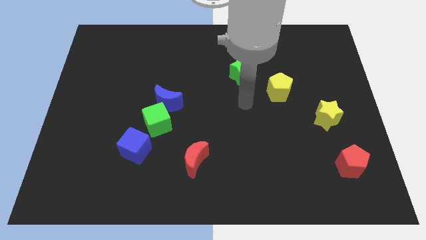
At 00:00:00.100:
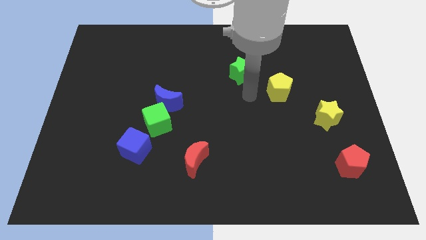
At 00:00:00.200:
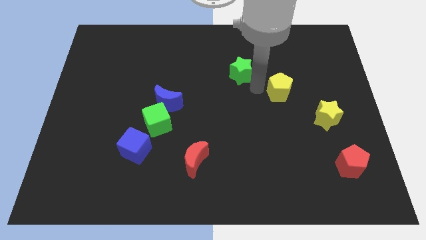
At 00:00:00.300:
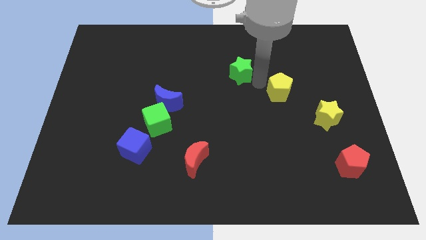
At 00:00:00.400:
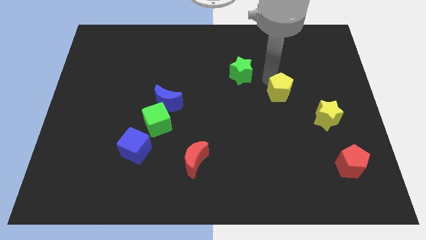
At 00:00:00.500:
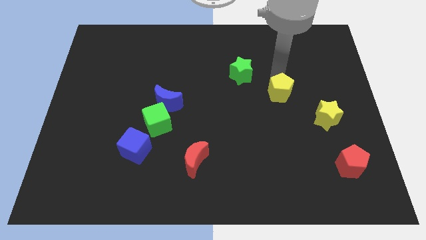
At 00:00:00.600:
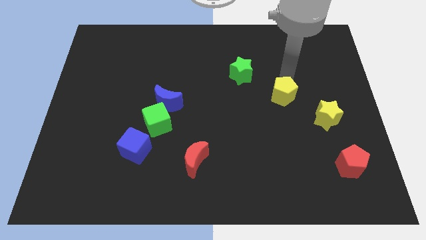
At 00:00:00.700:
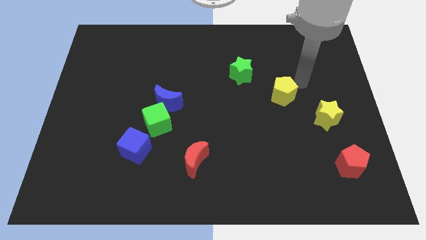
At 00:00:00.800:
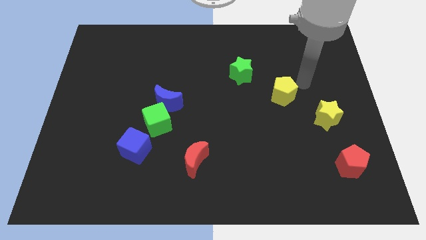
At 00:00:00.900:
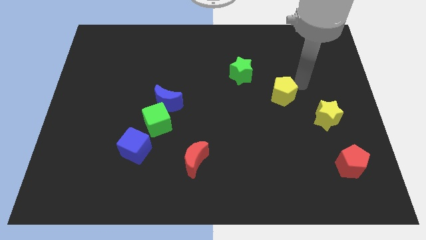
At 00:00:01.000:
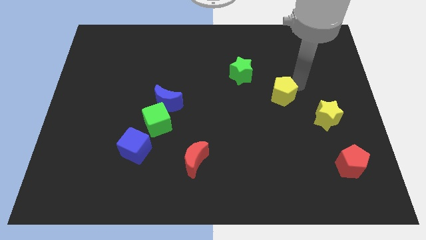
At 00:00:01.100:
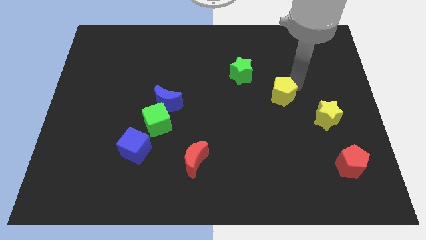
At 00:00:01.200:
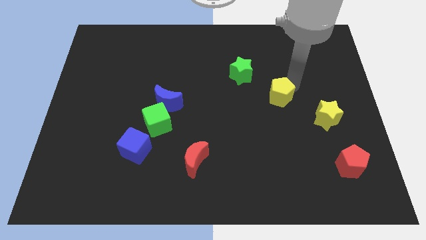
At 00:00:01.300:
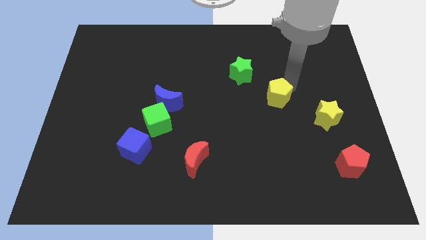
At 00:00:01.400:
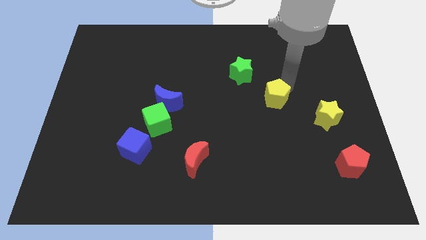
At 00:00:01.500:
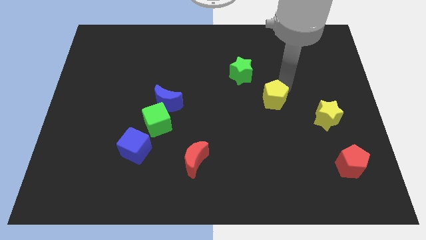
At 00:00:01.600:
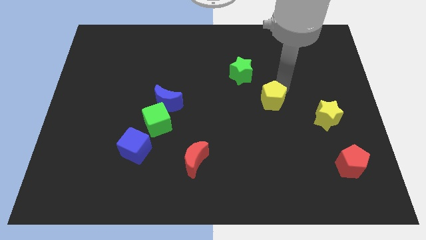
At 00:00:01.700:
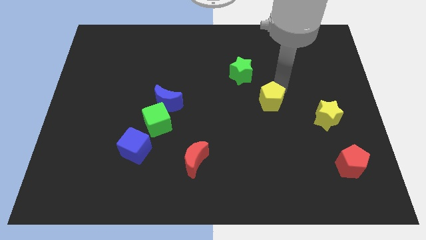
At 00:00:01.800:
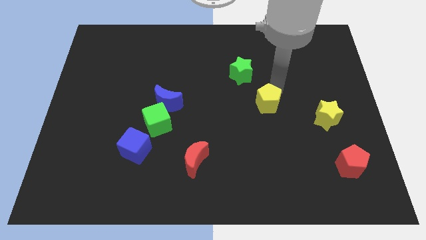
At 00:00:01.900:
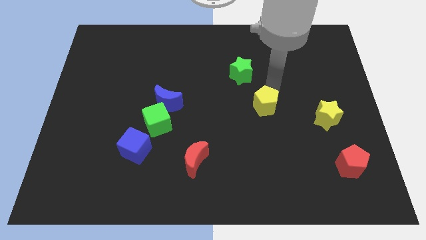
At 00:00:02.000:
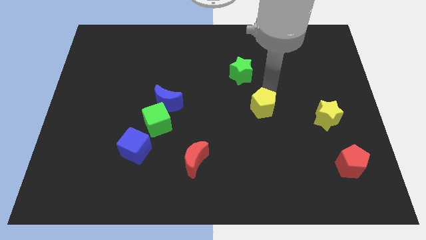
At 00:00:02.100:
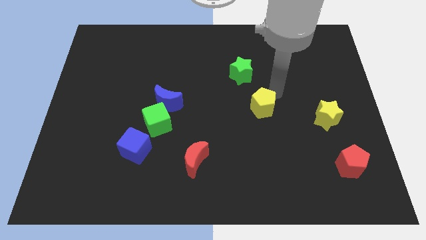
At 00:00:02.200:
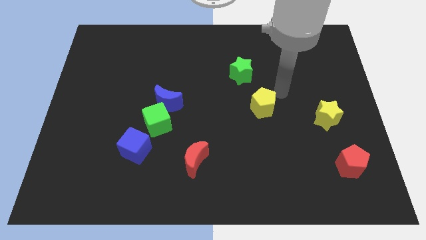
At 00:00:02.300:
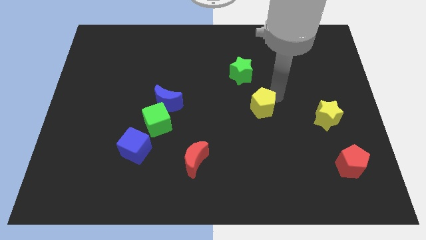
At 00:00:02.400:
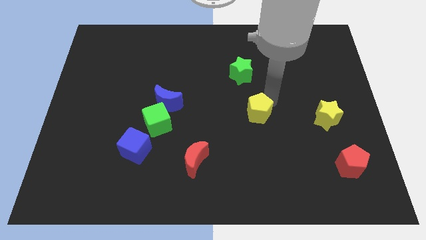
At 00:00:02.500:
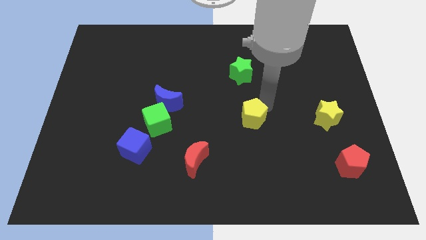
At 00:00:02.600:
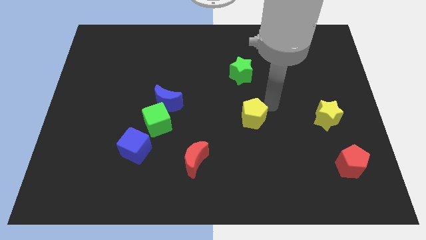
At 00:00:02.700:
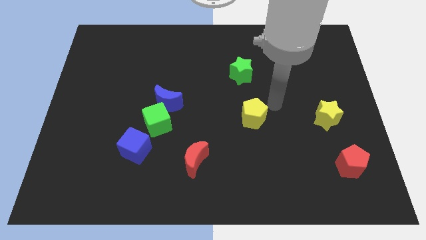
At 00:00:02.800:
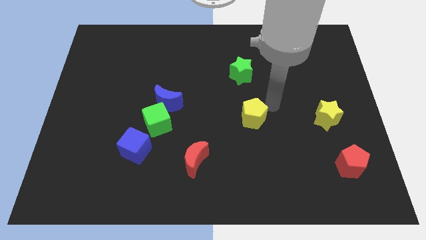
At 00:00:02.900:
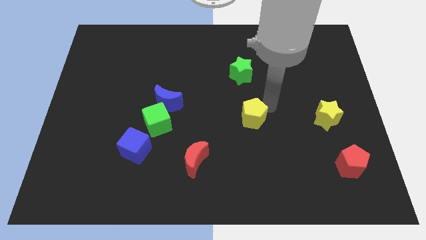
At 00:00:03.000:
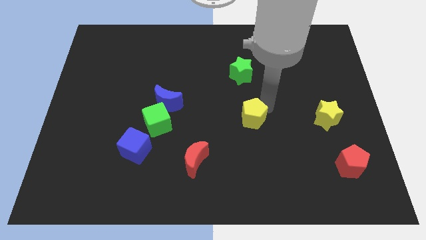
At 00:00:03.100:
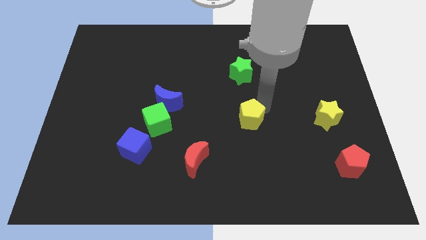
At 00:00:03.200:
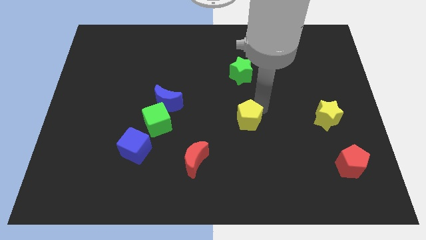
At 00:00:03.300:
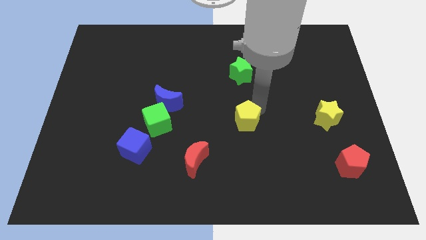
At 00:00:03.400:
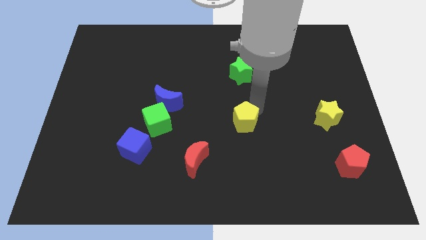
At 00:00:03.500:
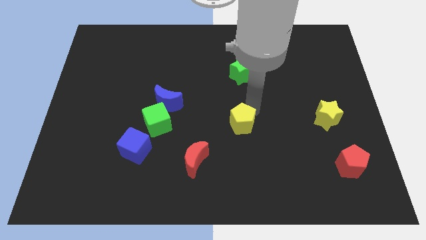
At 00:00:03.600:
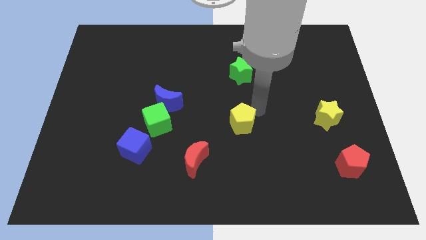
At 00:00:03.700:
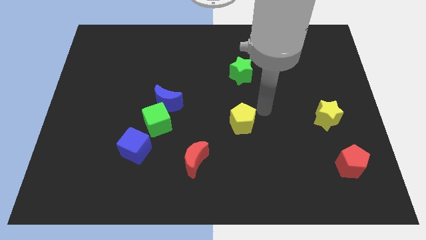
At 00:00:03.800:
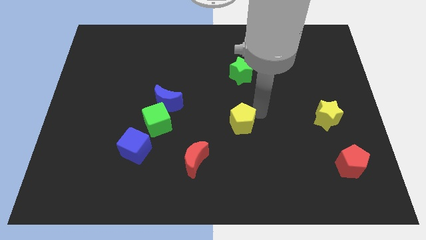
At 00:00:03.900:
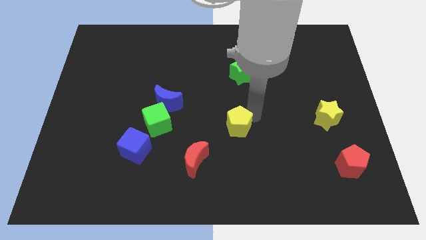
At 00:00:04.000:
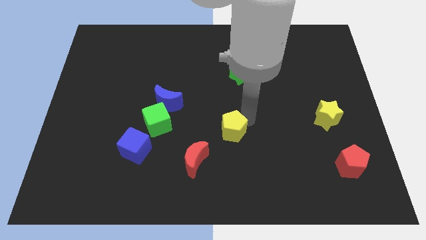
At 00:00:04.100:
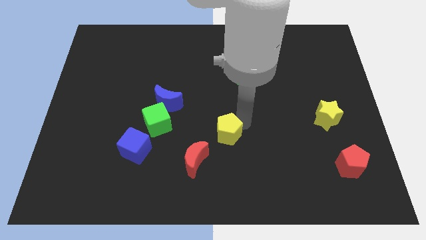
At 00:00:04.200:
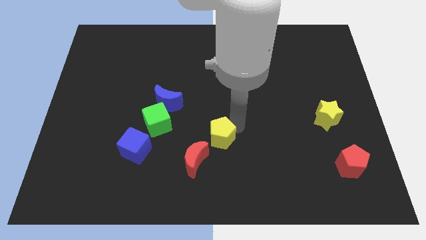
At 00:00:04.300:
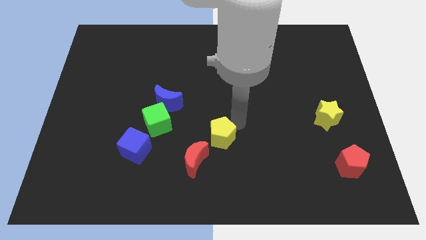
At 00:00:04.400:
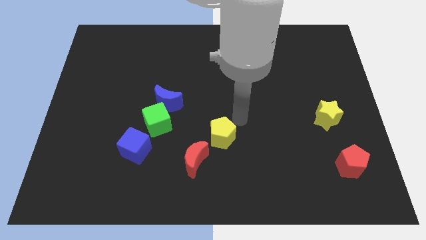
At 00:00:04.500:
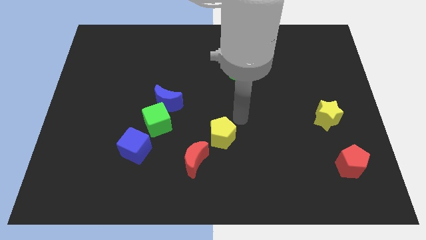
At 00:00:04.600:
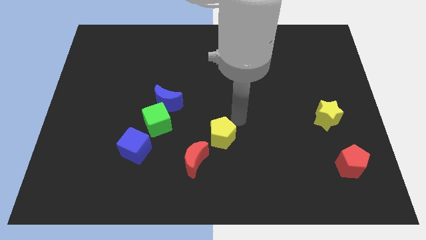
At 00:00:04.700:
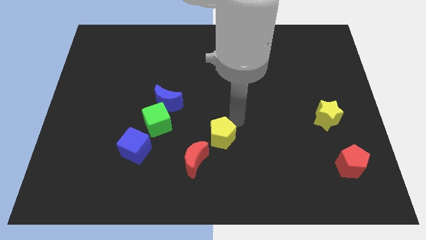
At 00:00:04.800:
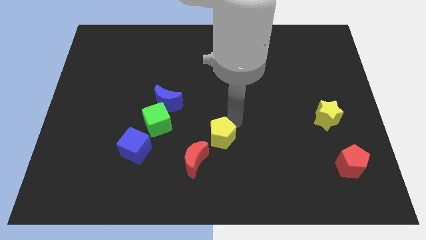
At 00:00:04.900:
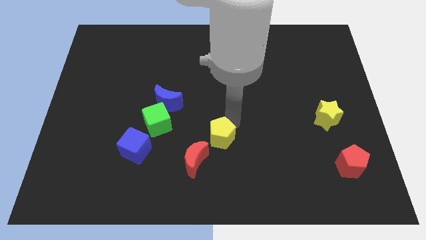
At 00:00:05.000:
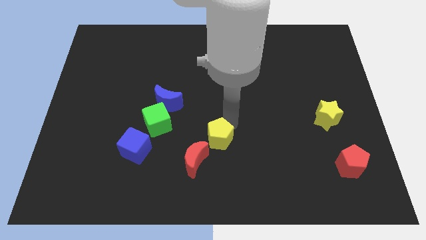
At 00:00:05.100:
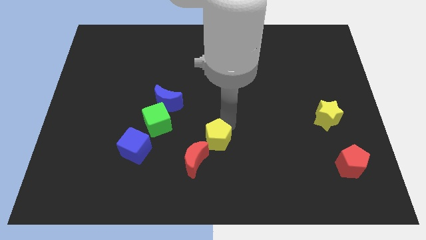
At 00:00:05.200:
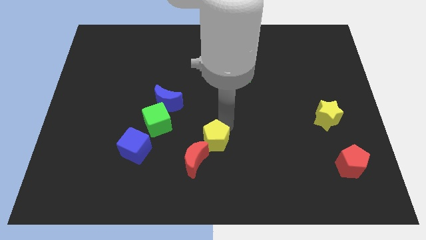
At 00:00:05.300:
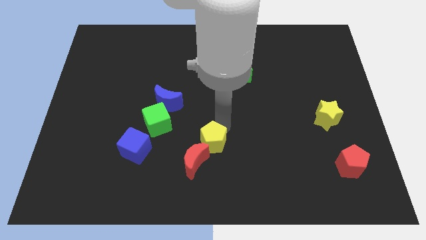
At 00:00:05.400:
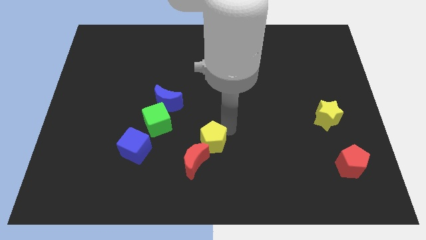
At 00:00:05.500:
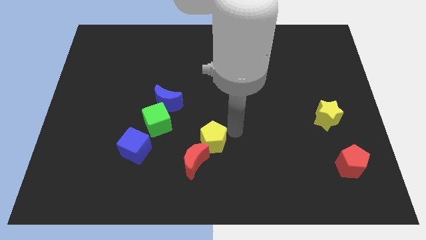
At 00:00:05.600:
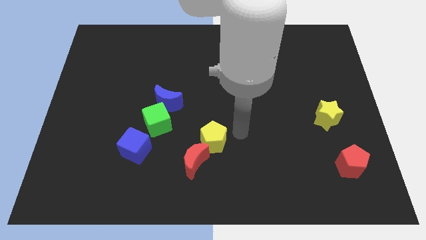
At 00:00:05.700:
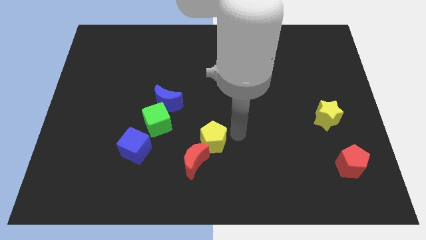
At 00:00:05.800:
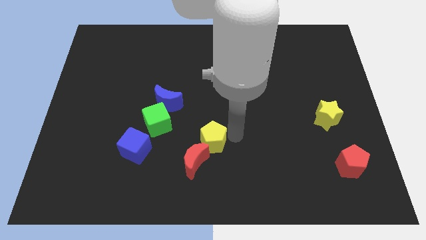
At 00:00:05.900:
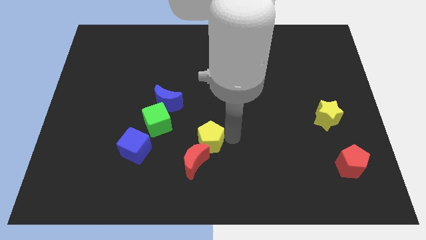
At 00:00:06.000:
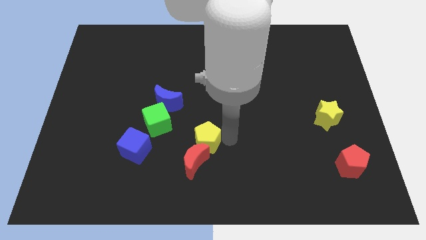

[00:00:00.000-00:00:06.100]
put the yellow pentagon right of the blue cube

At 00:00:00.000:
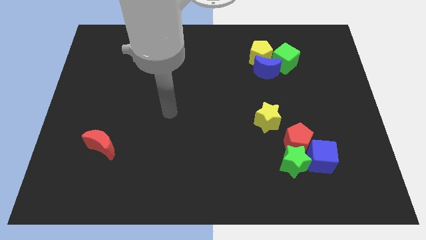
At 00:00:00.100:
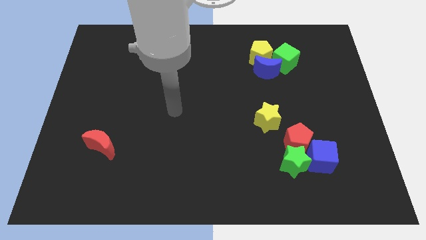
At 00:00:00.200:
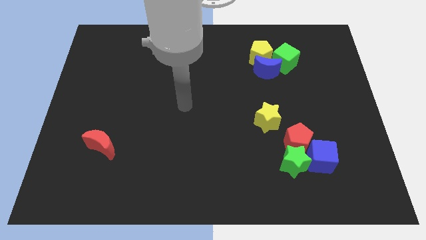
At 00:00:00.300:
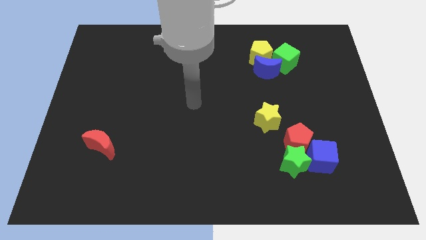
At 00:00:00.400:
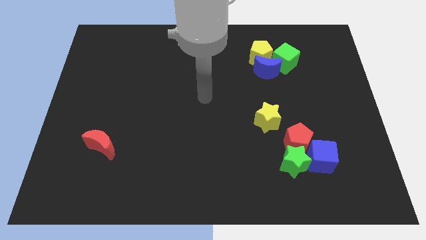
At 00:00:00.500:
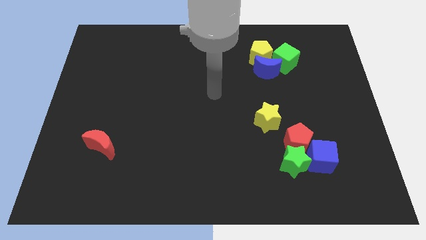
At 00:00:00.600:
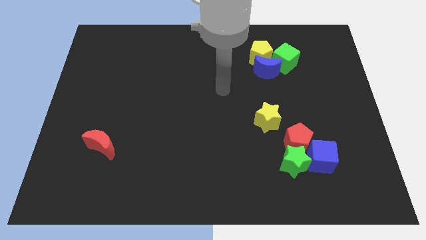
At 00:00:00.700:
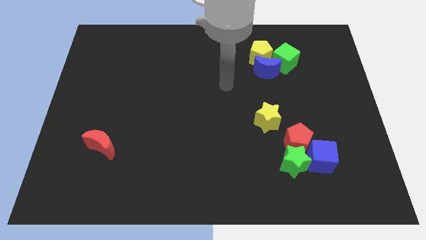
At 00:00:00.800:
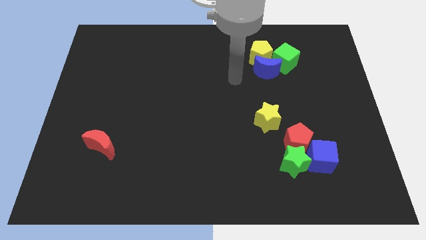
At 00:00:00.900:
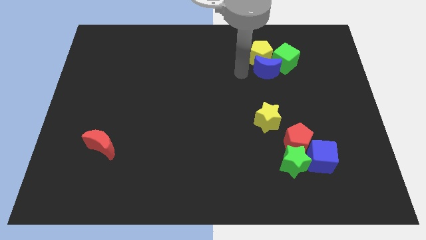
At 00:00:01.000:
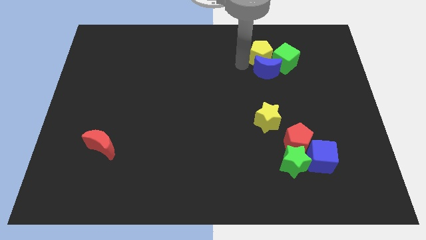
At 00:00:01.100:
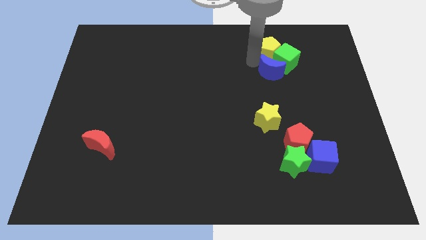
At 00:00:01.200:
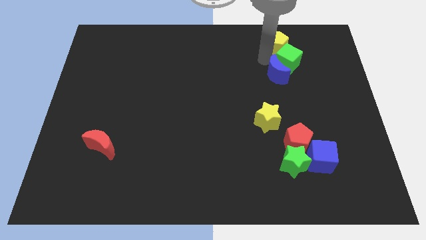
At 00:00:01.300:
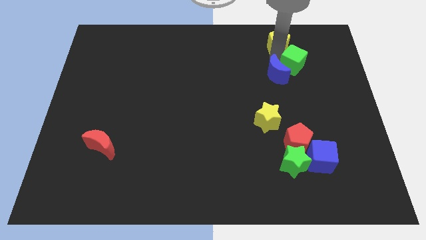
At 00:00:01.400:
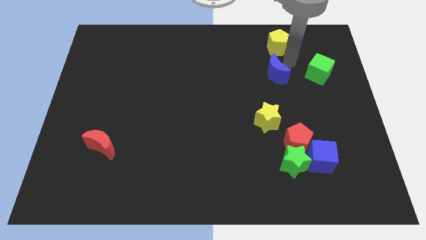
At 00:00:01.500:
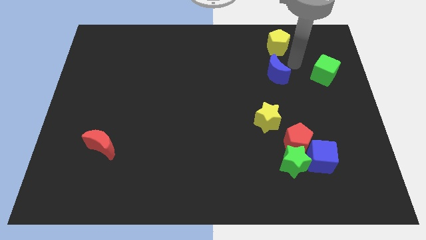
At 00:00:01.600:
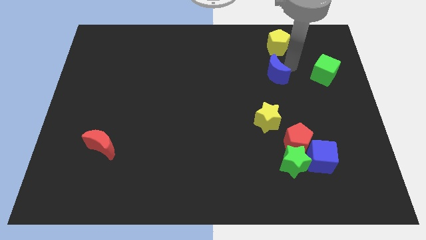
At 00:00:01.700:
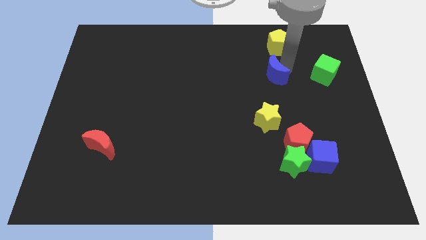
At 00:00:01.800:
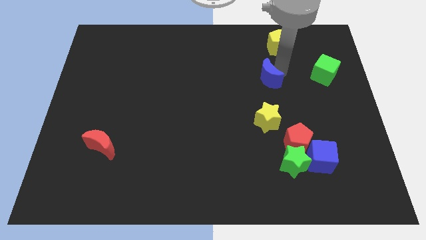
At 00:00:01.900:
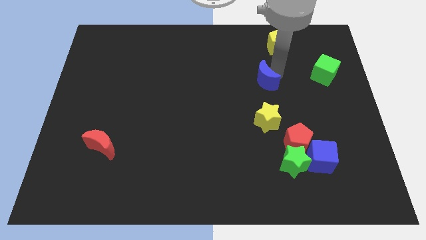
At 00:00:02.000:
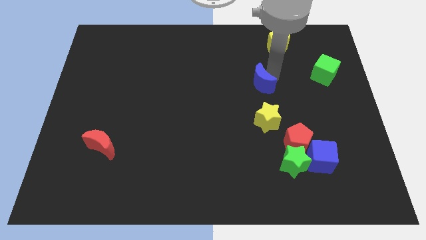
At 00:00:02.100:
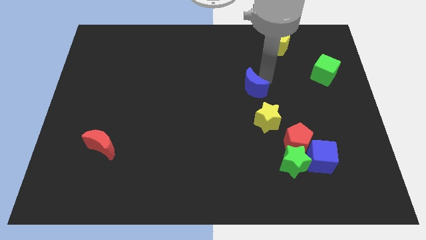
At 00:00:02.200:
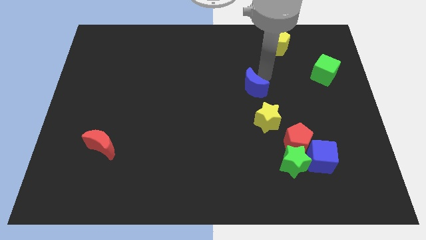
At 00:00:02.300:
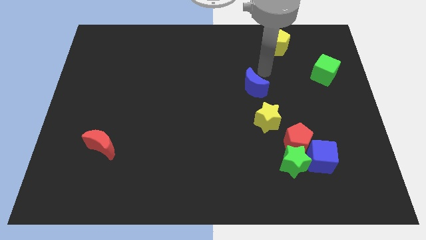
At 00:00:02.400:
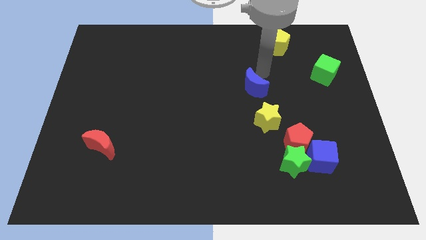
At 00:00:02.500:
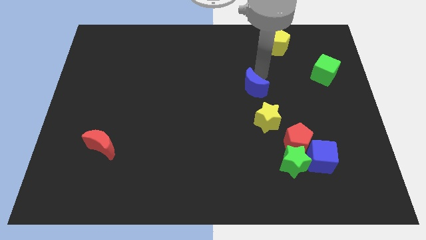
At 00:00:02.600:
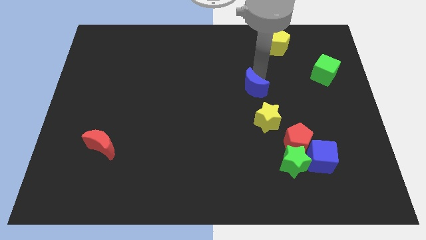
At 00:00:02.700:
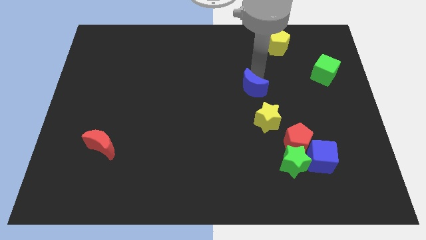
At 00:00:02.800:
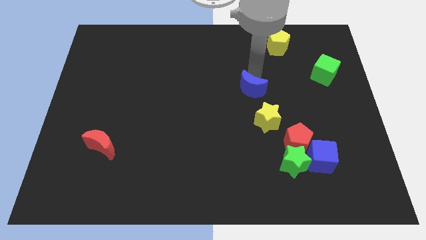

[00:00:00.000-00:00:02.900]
push the blue moon to the top left side of the yellow star
